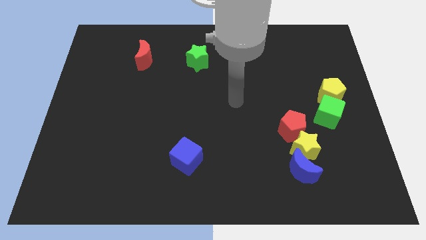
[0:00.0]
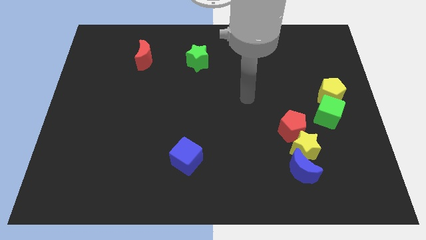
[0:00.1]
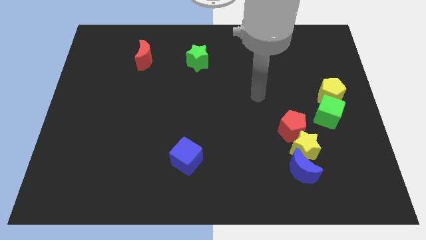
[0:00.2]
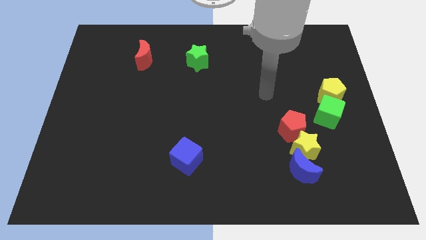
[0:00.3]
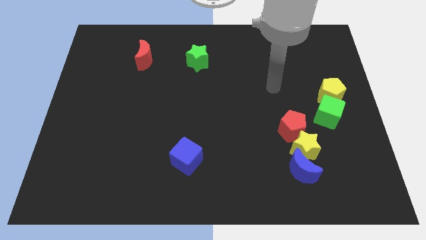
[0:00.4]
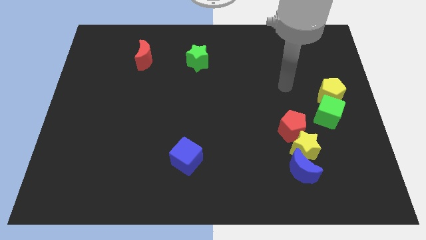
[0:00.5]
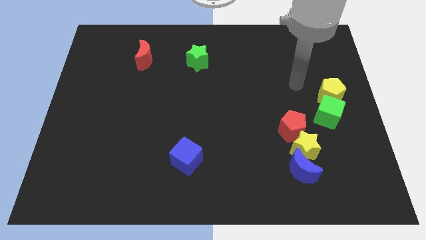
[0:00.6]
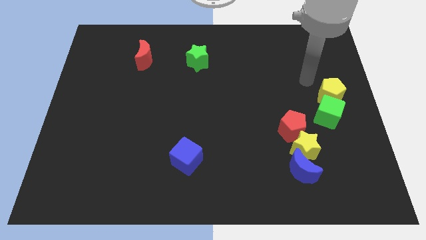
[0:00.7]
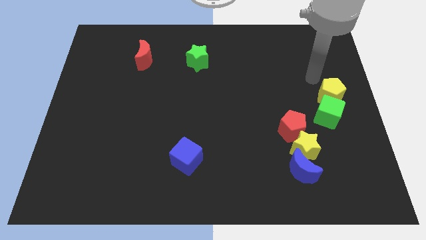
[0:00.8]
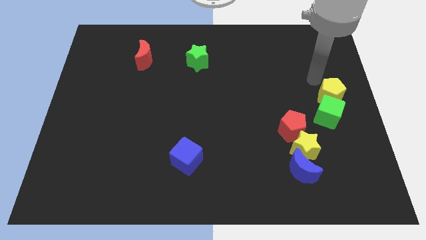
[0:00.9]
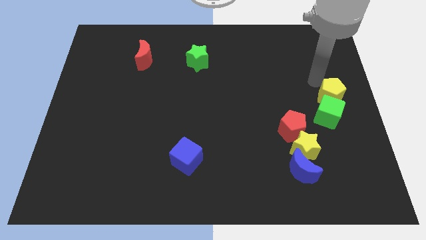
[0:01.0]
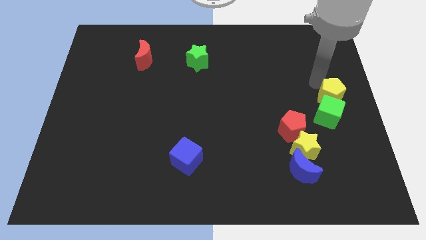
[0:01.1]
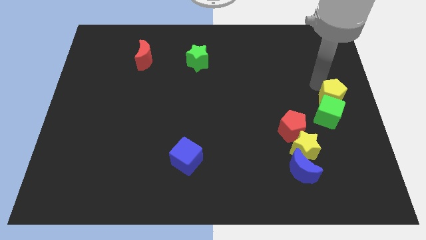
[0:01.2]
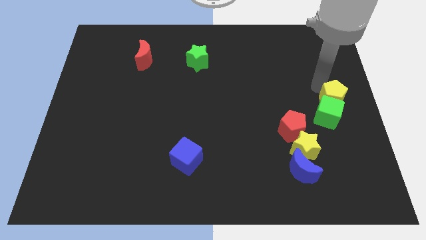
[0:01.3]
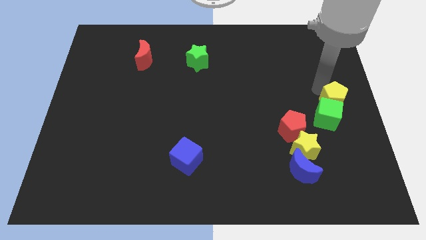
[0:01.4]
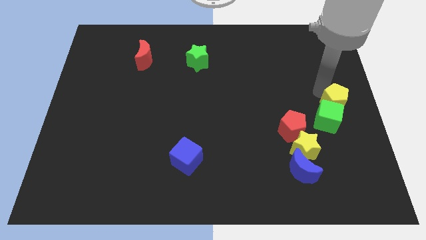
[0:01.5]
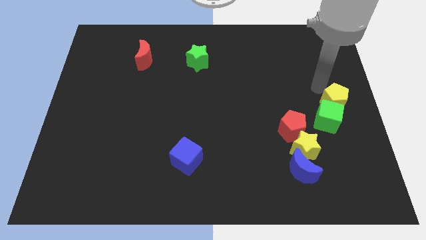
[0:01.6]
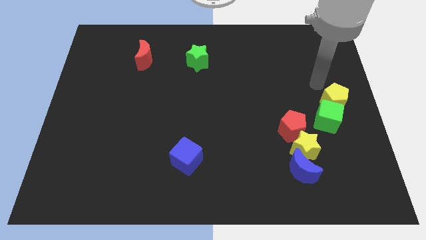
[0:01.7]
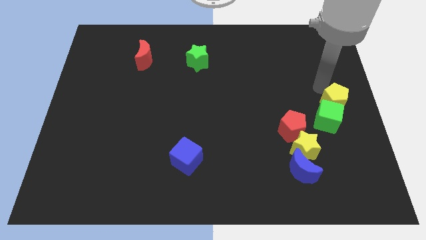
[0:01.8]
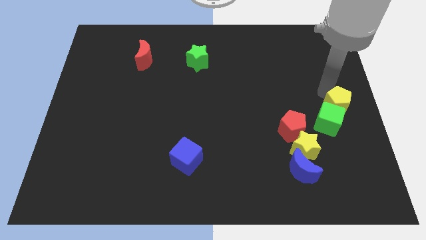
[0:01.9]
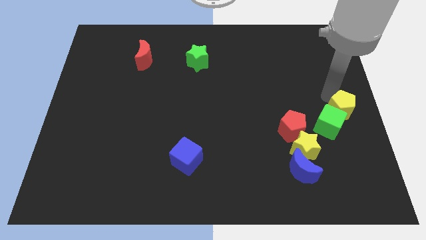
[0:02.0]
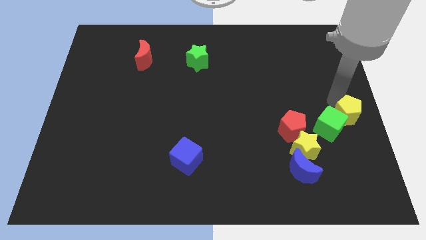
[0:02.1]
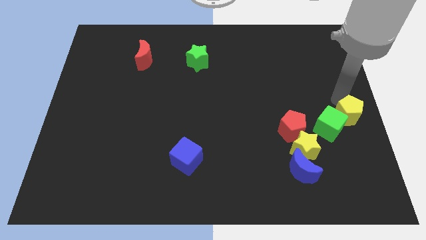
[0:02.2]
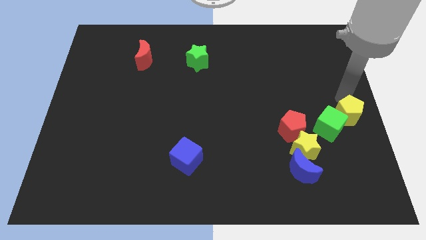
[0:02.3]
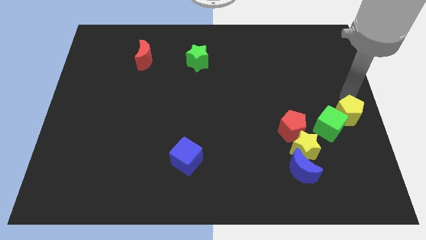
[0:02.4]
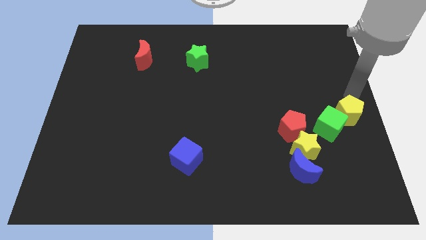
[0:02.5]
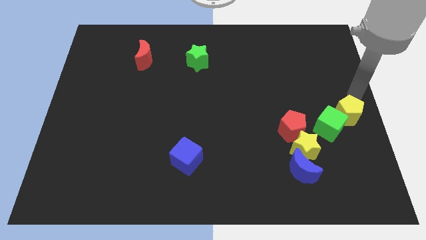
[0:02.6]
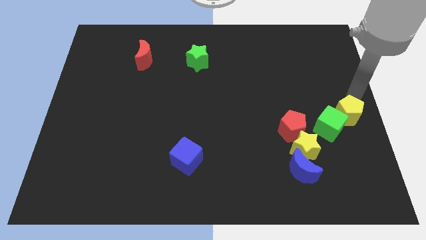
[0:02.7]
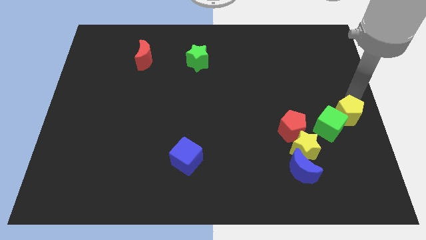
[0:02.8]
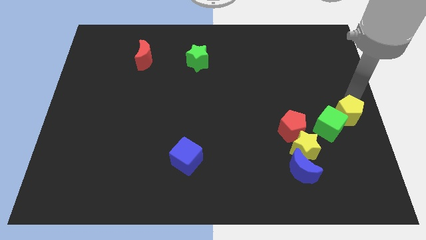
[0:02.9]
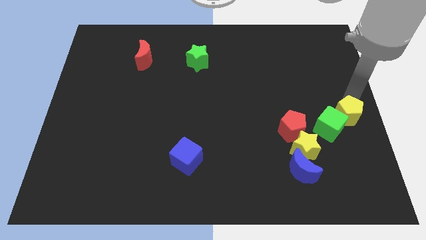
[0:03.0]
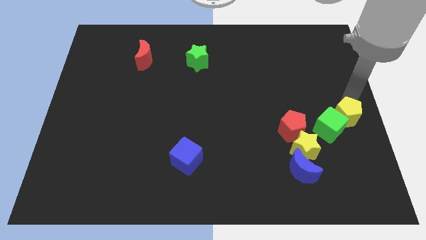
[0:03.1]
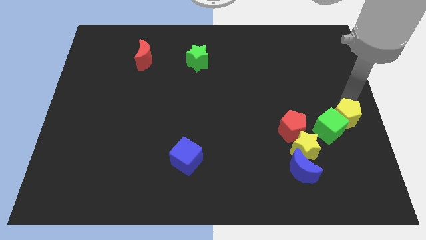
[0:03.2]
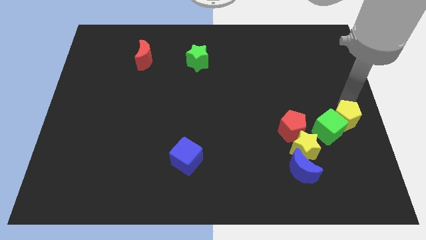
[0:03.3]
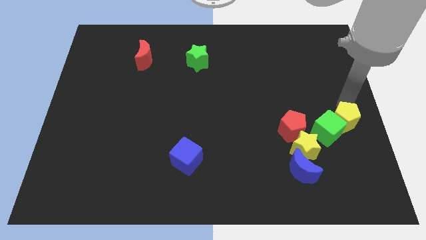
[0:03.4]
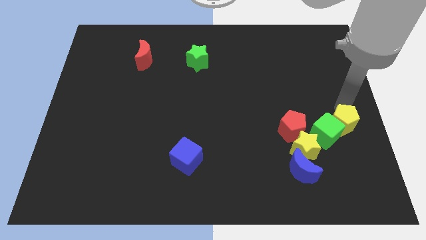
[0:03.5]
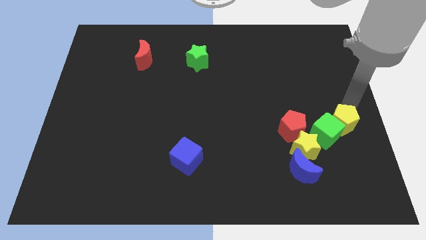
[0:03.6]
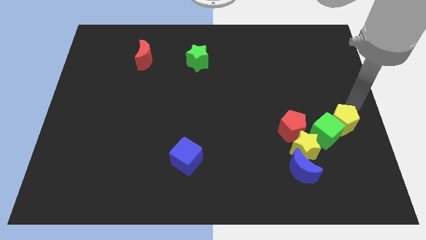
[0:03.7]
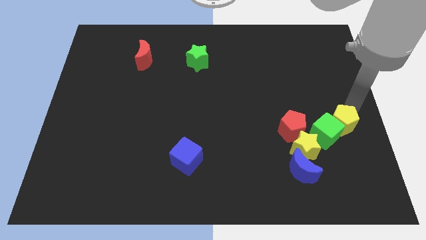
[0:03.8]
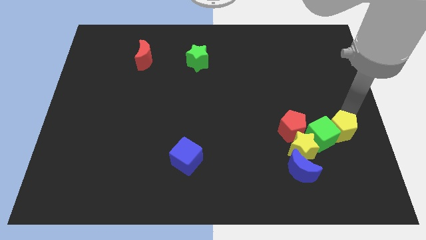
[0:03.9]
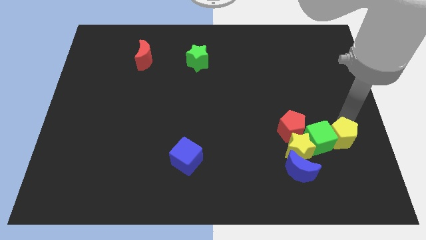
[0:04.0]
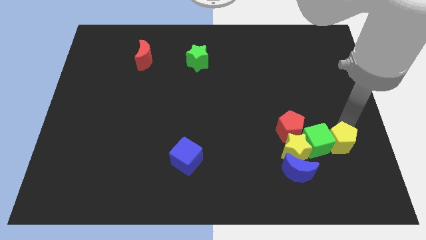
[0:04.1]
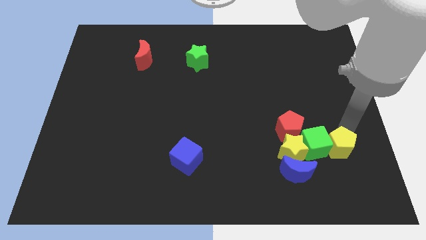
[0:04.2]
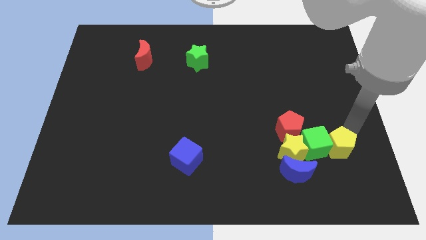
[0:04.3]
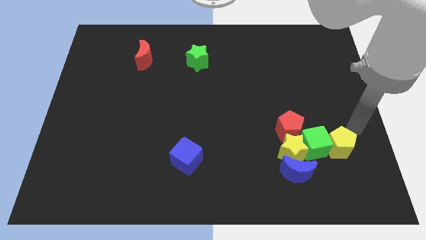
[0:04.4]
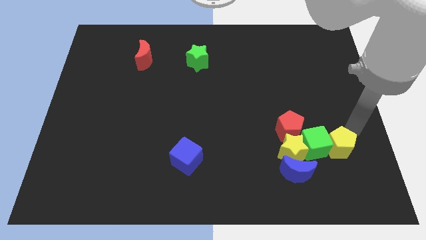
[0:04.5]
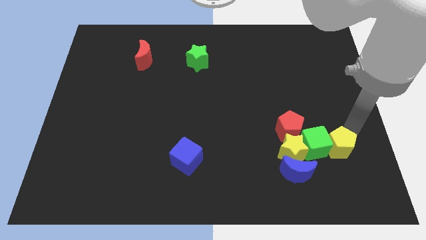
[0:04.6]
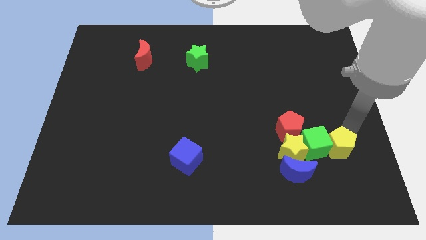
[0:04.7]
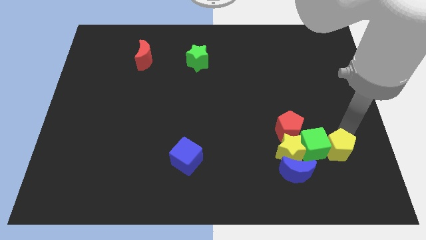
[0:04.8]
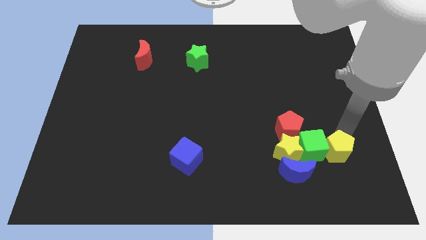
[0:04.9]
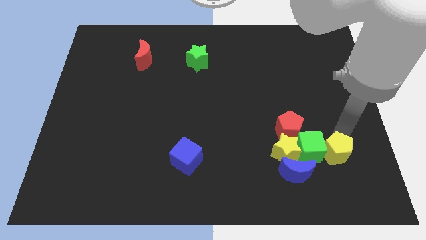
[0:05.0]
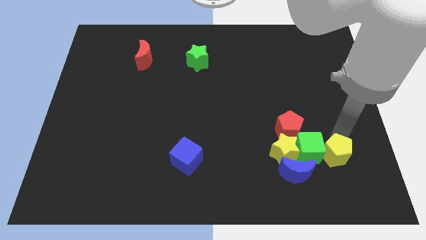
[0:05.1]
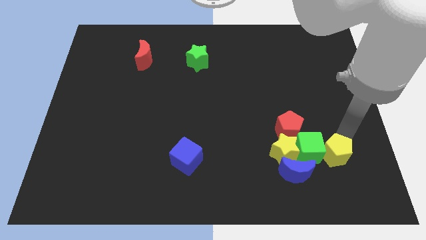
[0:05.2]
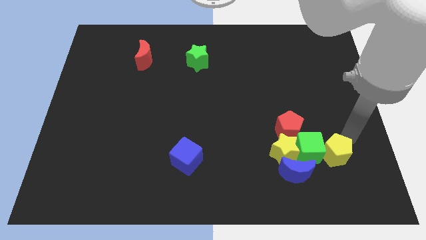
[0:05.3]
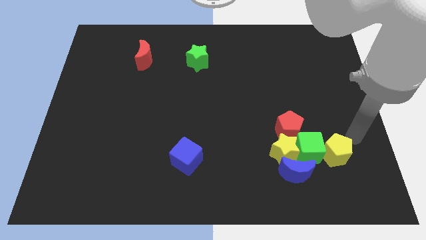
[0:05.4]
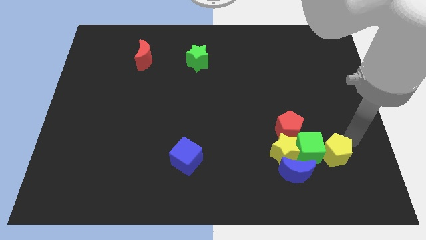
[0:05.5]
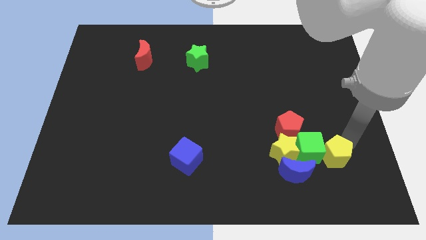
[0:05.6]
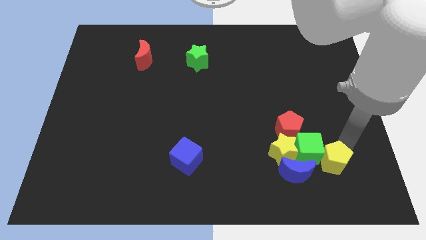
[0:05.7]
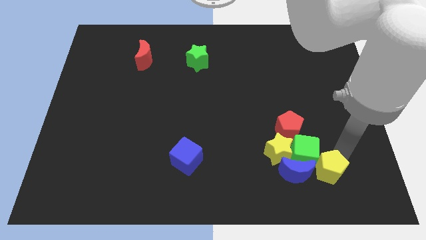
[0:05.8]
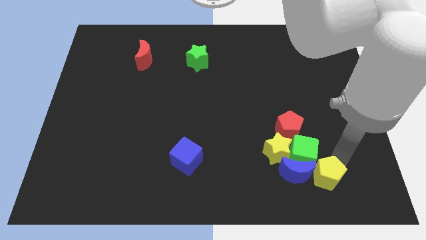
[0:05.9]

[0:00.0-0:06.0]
slide the yellow pentagon next to the blue moon

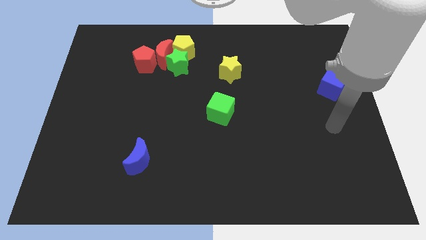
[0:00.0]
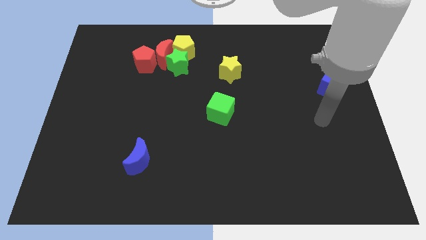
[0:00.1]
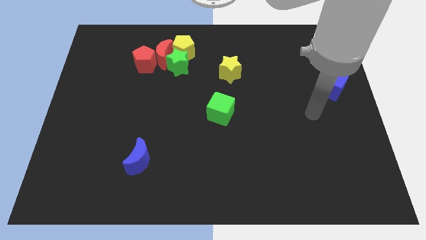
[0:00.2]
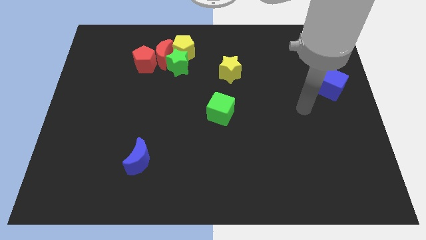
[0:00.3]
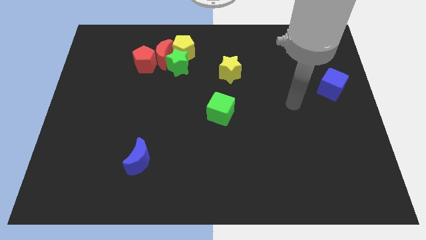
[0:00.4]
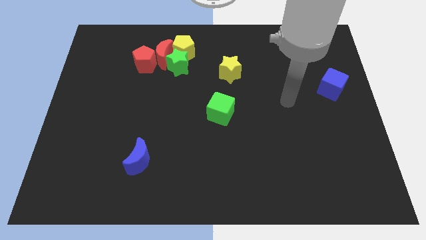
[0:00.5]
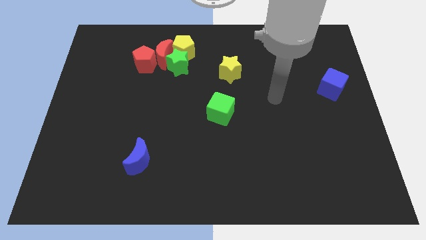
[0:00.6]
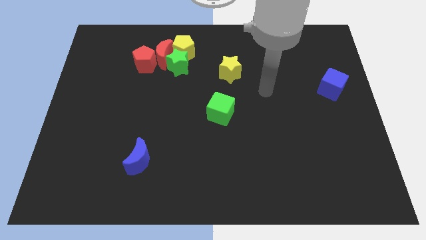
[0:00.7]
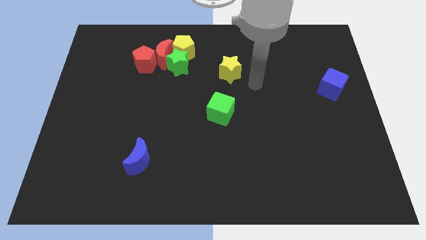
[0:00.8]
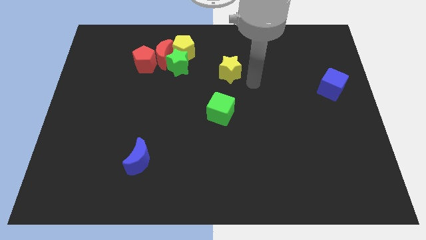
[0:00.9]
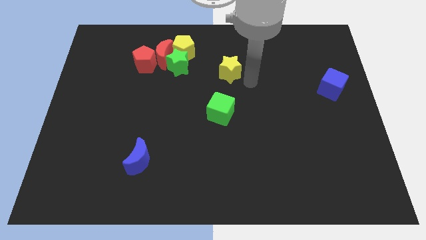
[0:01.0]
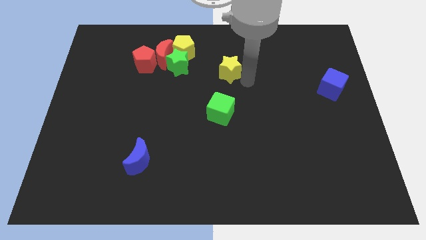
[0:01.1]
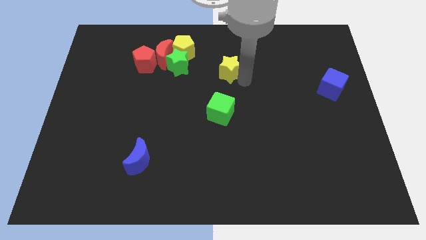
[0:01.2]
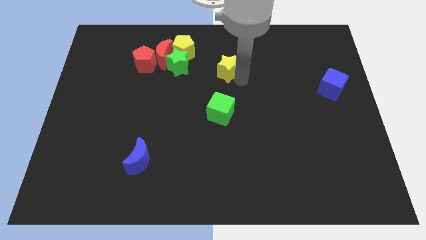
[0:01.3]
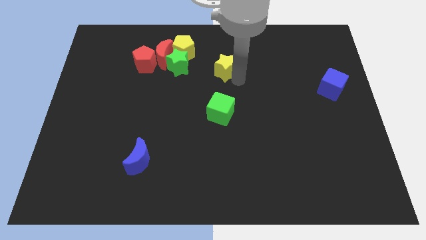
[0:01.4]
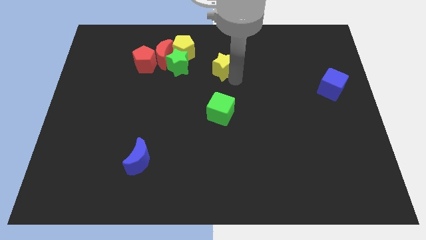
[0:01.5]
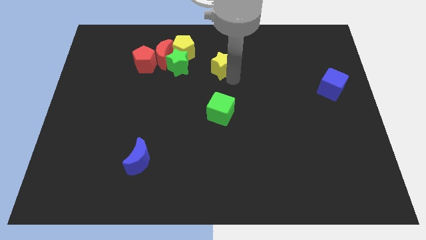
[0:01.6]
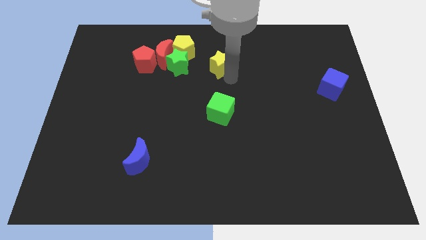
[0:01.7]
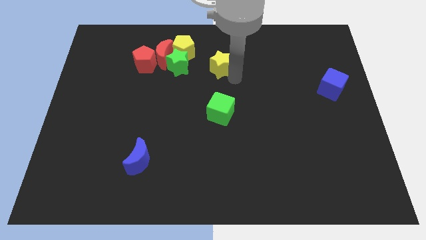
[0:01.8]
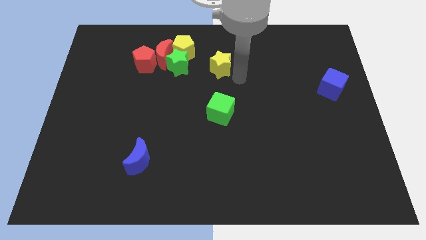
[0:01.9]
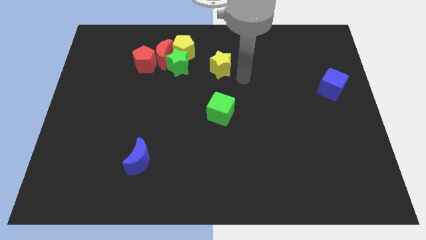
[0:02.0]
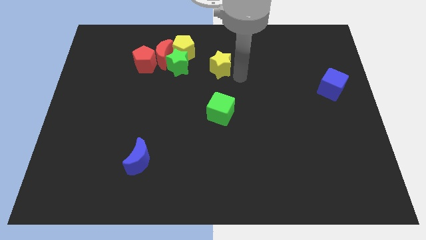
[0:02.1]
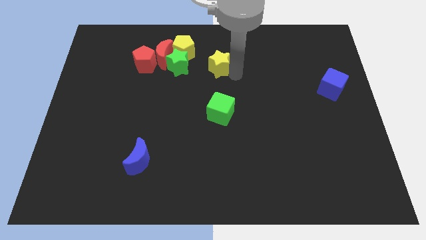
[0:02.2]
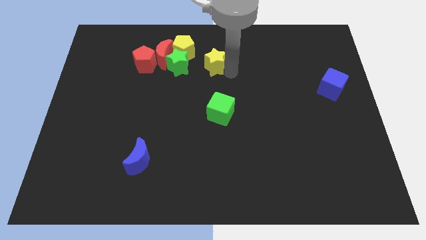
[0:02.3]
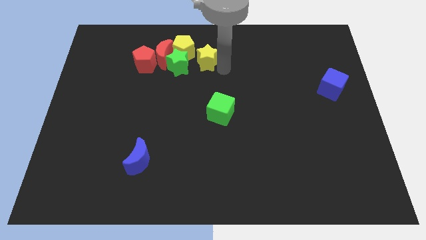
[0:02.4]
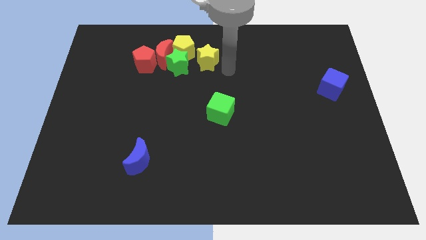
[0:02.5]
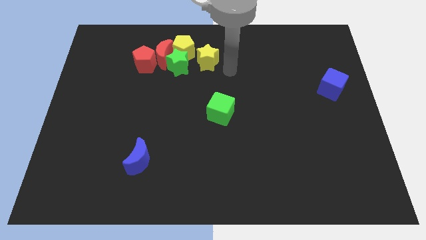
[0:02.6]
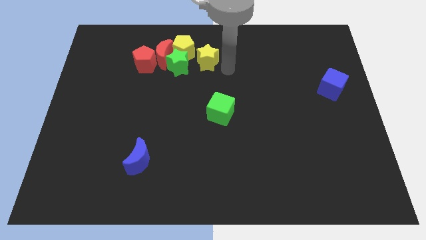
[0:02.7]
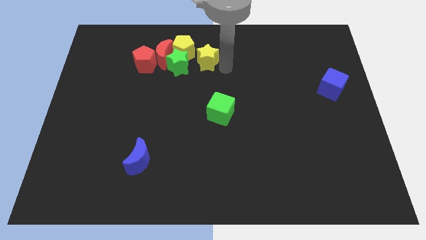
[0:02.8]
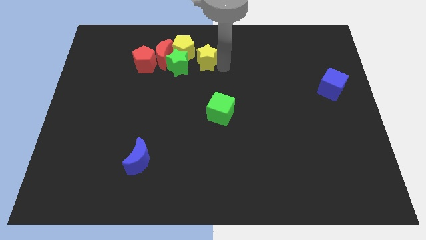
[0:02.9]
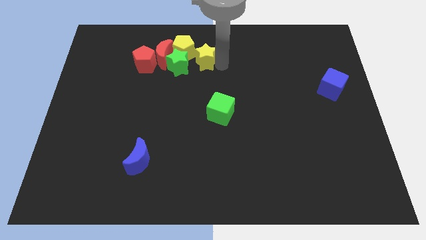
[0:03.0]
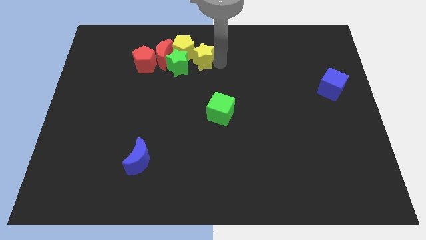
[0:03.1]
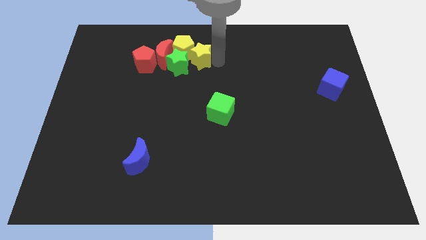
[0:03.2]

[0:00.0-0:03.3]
push the yellow star close to the yellow pentagon
